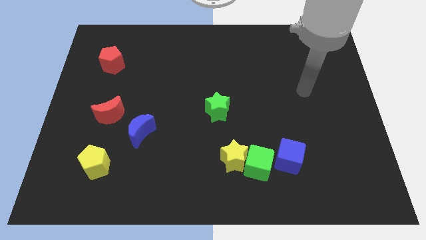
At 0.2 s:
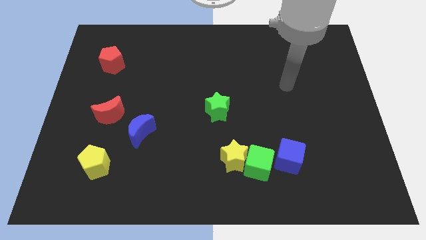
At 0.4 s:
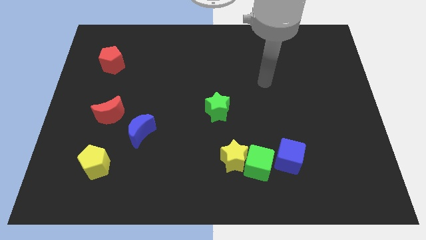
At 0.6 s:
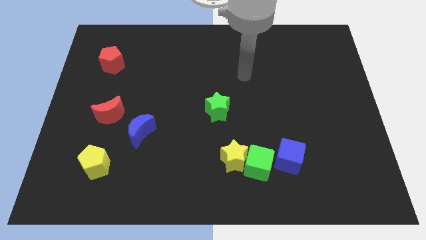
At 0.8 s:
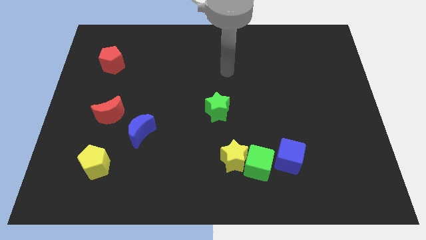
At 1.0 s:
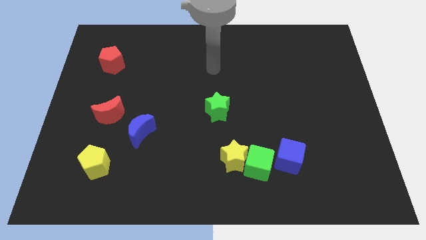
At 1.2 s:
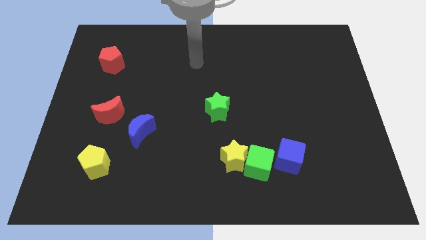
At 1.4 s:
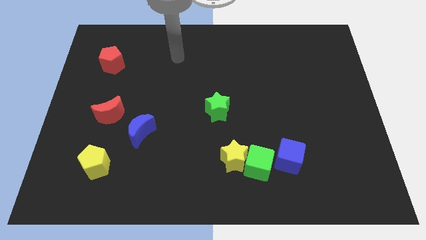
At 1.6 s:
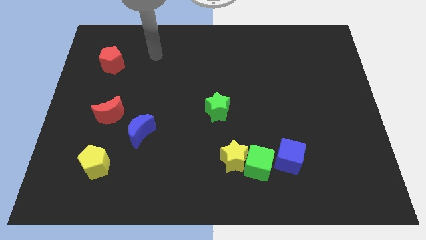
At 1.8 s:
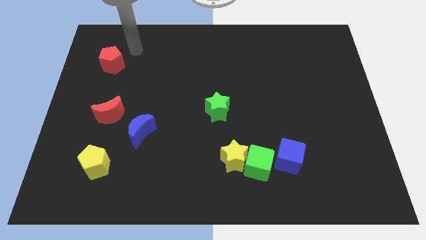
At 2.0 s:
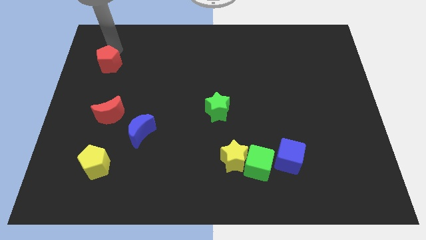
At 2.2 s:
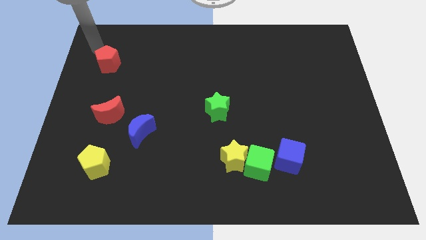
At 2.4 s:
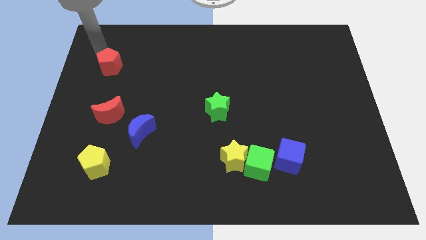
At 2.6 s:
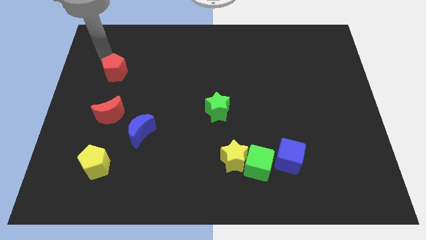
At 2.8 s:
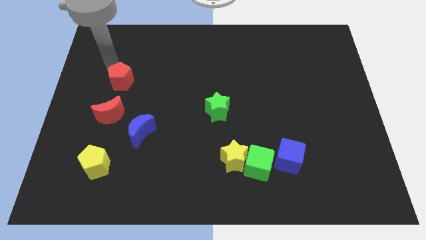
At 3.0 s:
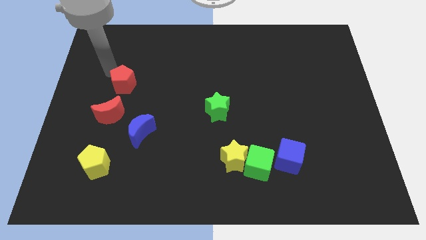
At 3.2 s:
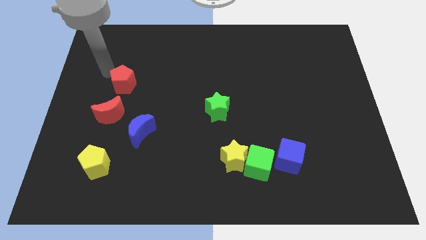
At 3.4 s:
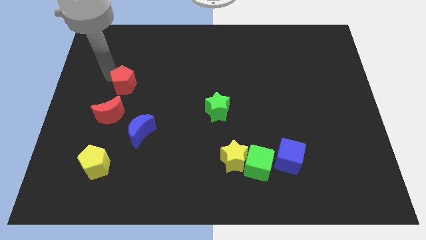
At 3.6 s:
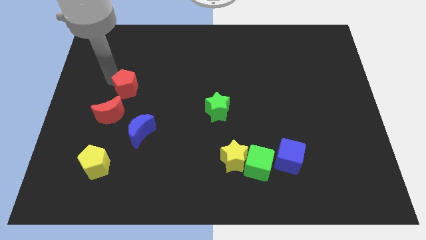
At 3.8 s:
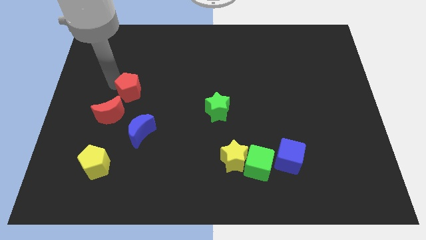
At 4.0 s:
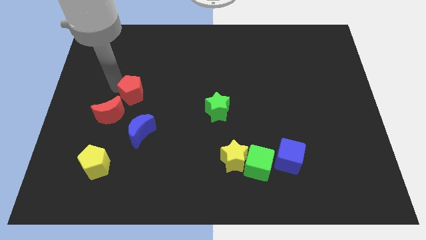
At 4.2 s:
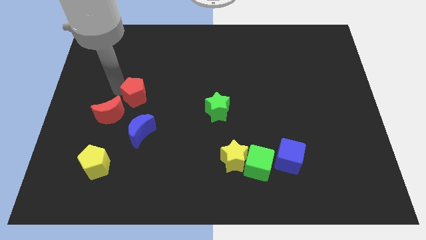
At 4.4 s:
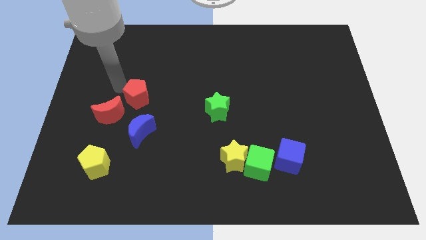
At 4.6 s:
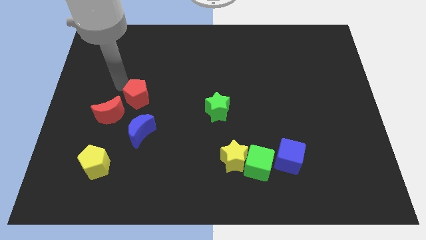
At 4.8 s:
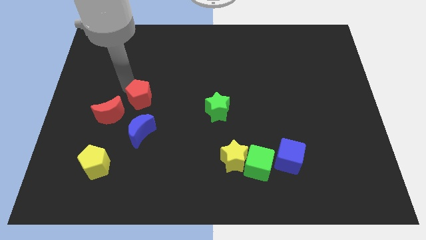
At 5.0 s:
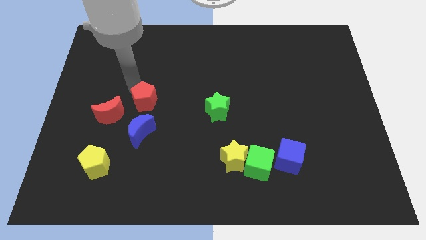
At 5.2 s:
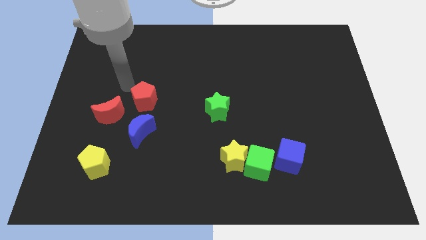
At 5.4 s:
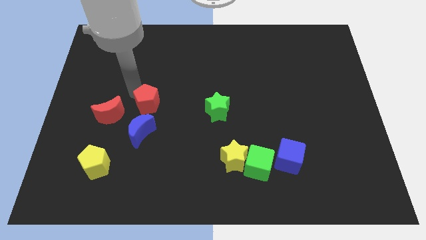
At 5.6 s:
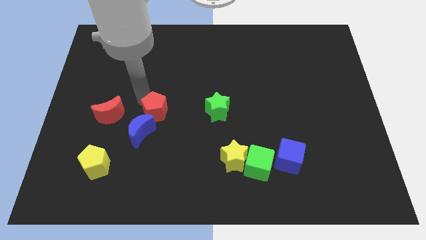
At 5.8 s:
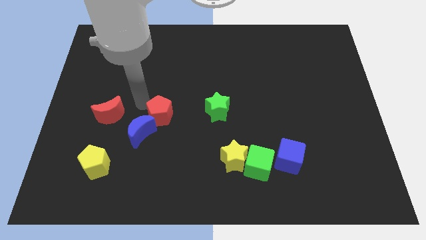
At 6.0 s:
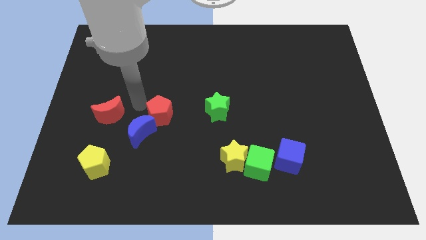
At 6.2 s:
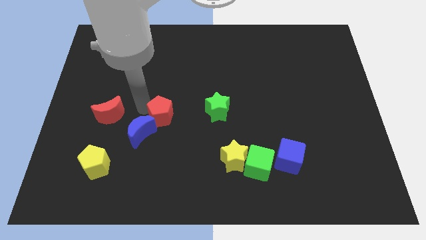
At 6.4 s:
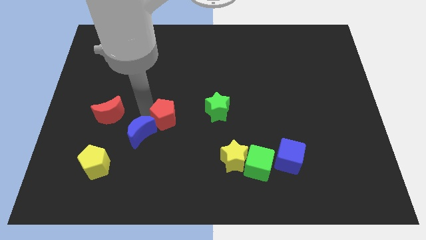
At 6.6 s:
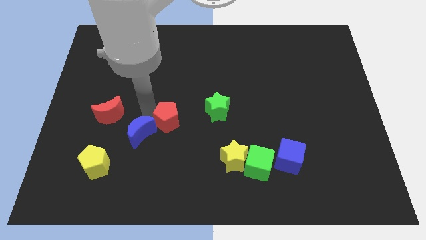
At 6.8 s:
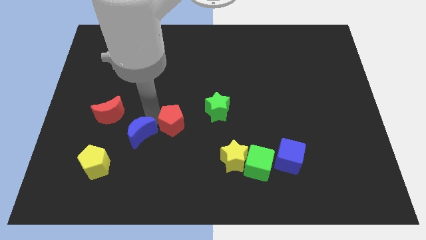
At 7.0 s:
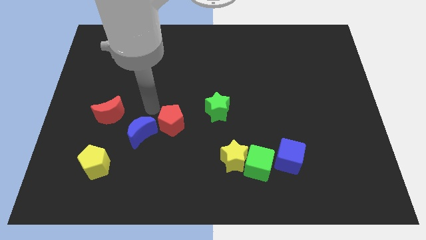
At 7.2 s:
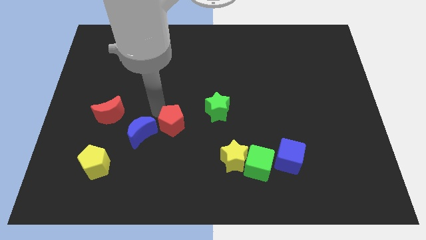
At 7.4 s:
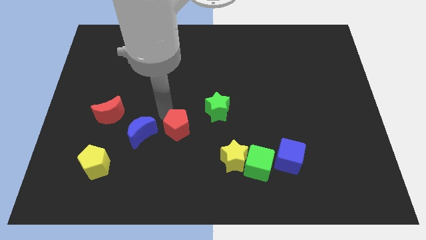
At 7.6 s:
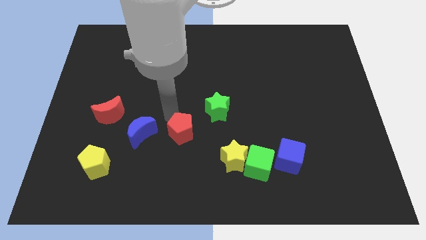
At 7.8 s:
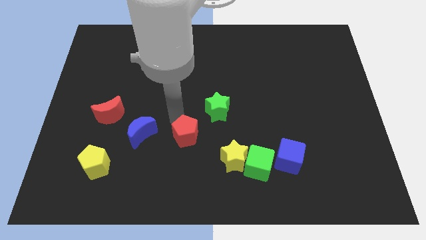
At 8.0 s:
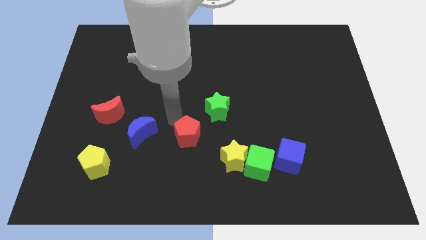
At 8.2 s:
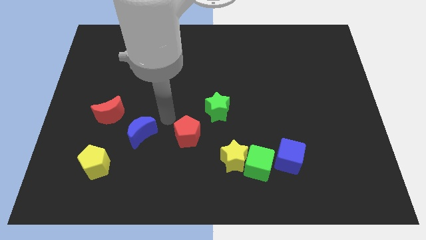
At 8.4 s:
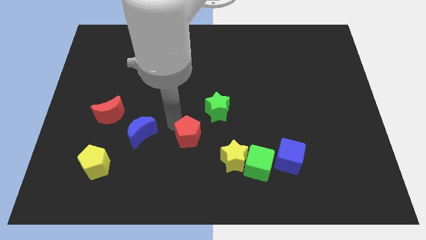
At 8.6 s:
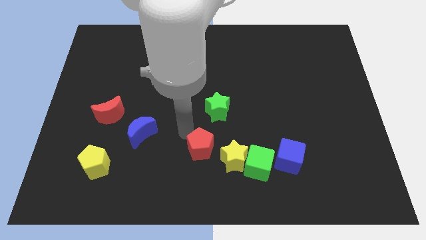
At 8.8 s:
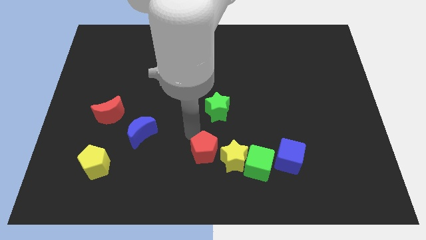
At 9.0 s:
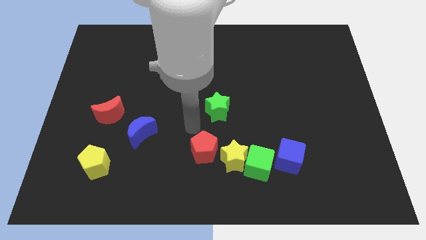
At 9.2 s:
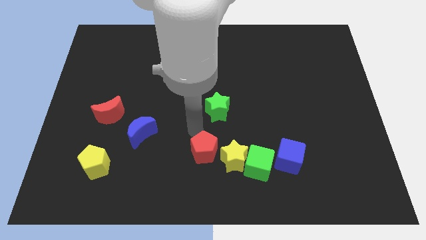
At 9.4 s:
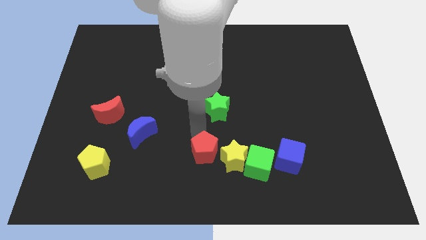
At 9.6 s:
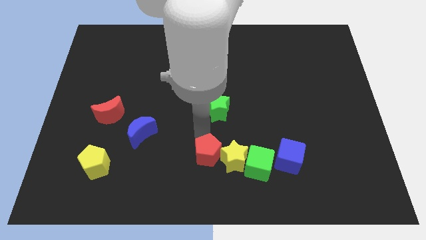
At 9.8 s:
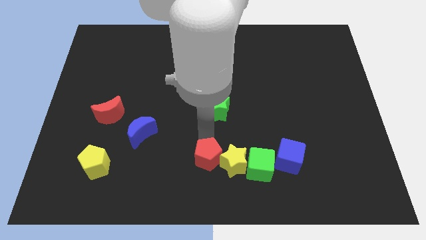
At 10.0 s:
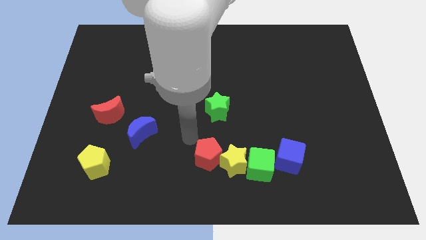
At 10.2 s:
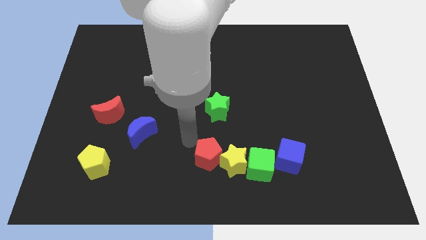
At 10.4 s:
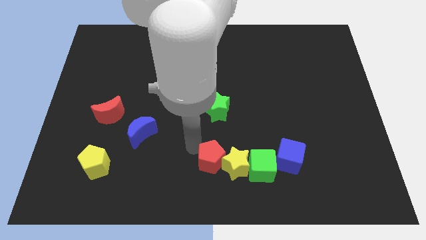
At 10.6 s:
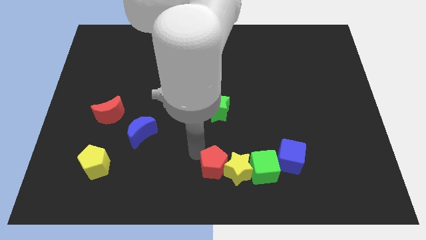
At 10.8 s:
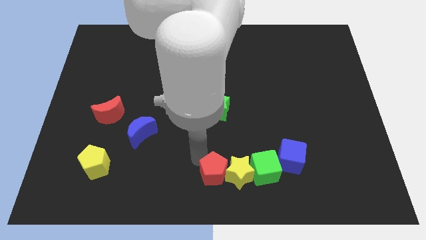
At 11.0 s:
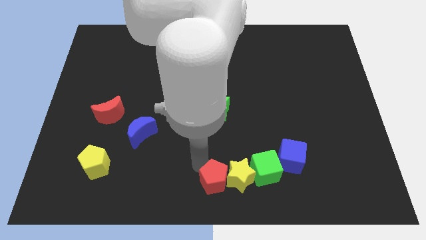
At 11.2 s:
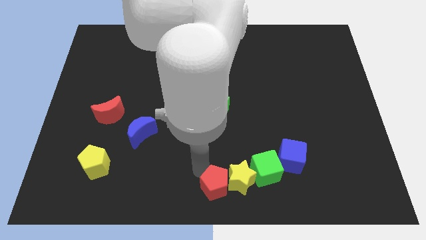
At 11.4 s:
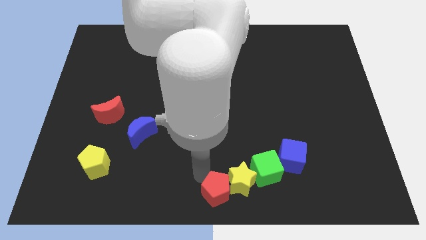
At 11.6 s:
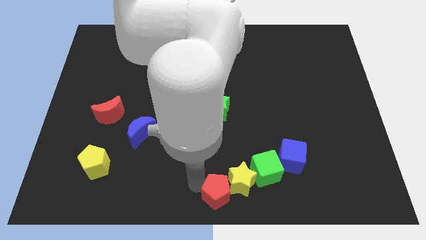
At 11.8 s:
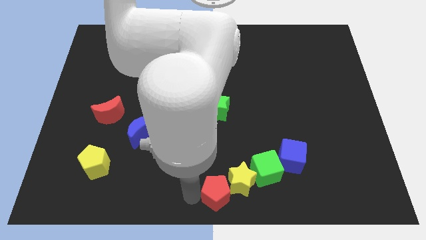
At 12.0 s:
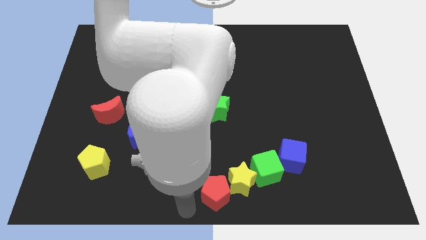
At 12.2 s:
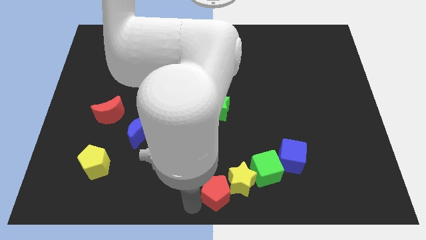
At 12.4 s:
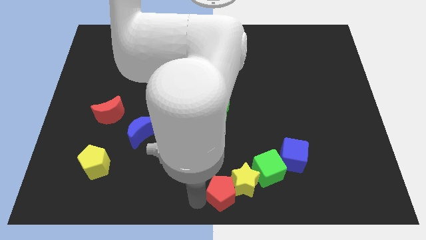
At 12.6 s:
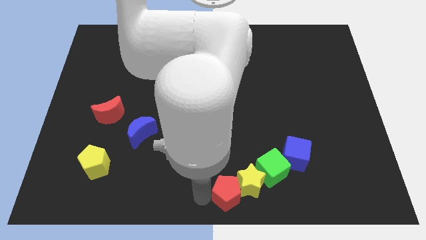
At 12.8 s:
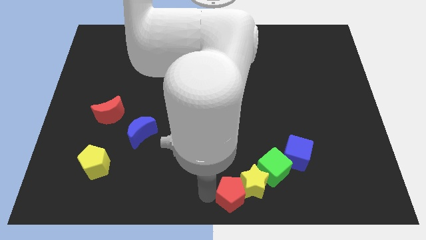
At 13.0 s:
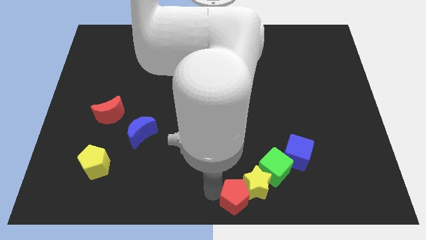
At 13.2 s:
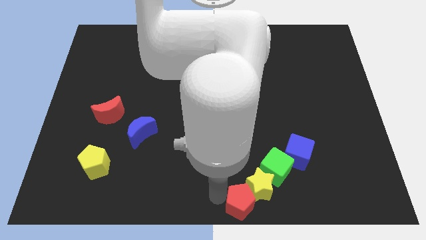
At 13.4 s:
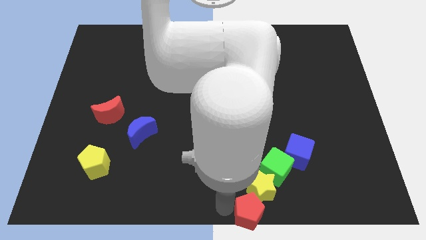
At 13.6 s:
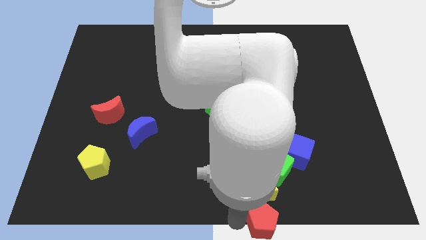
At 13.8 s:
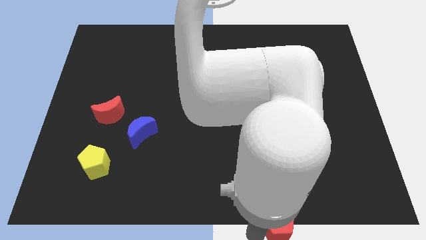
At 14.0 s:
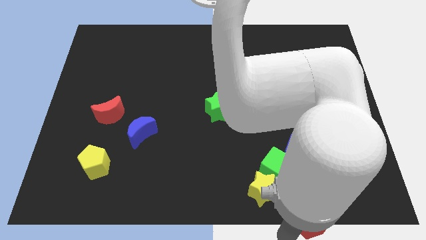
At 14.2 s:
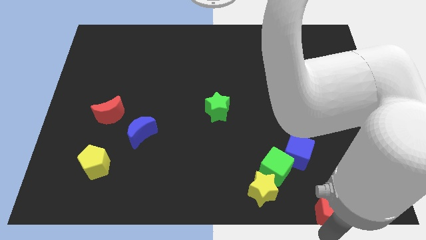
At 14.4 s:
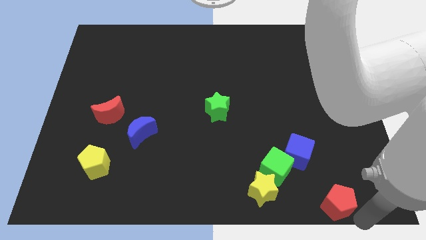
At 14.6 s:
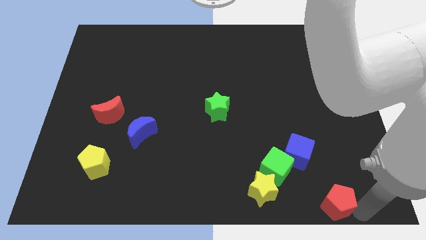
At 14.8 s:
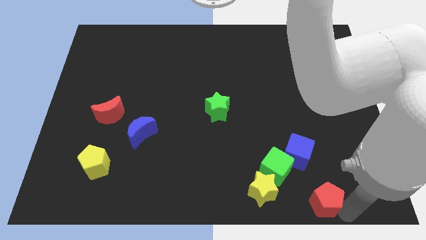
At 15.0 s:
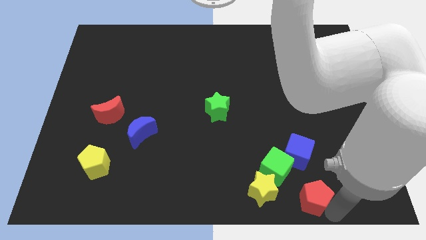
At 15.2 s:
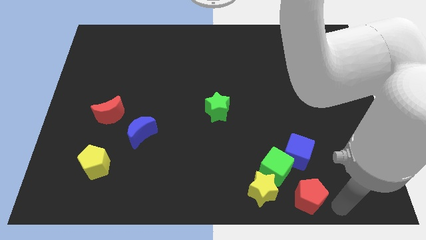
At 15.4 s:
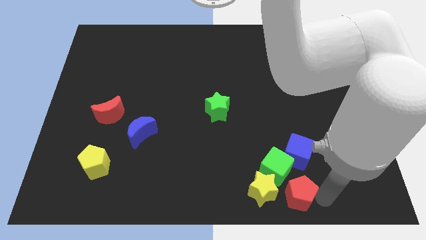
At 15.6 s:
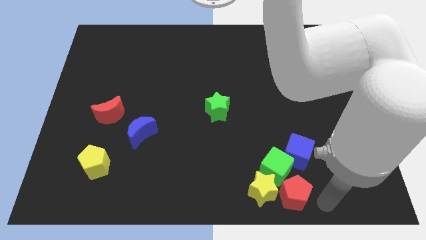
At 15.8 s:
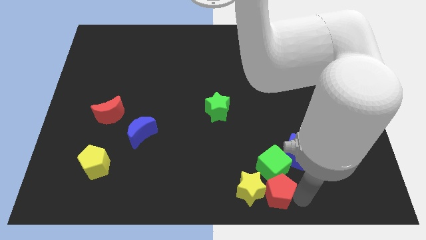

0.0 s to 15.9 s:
push the red pentagon close to the green cube
